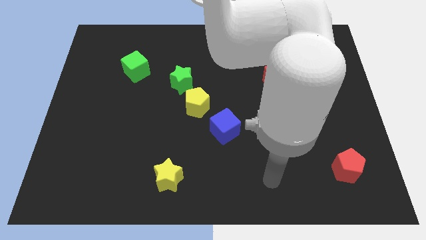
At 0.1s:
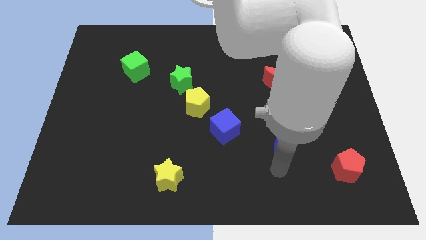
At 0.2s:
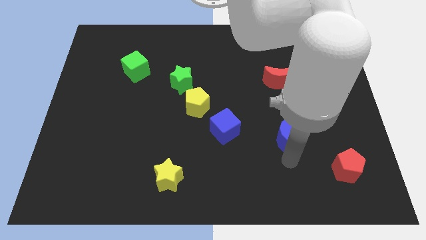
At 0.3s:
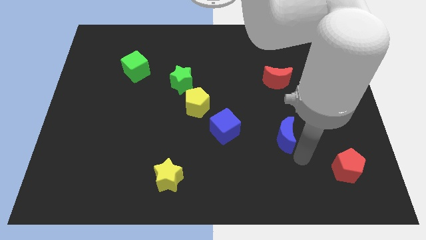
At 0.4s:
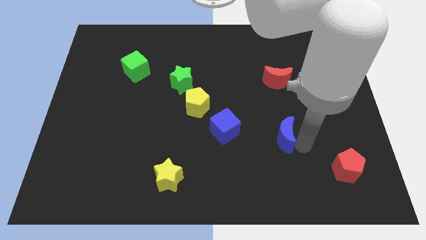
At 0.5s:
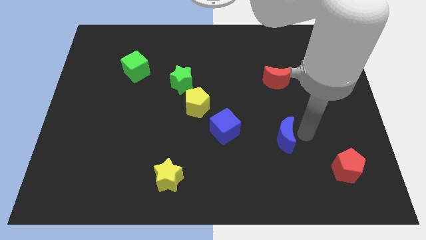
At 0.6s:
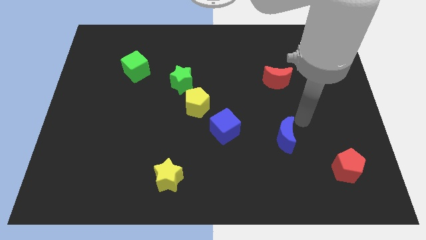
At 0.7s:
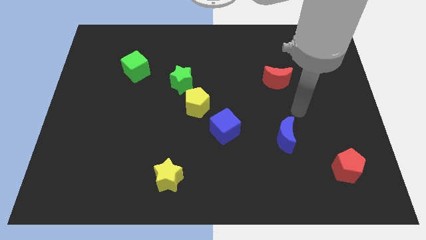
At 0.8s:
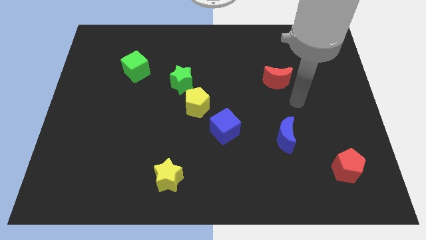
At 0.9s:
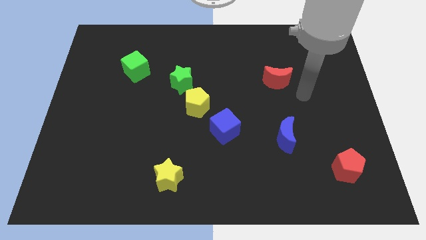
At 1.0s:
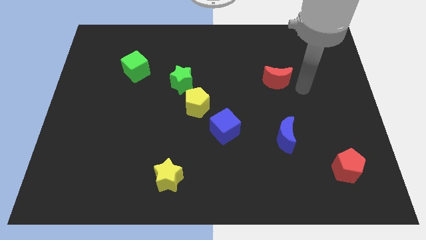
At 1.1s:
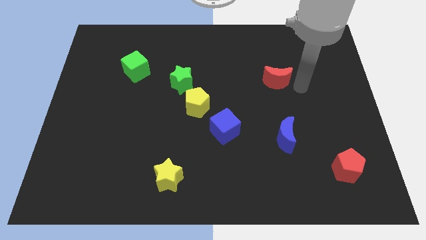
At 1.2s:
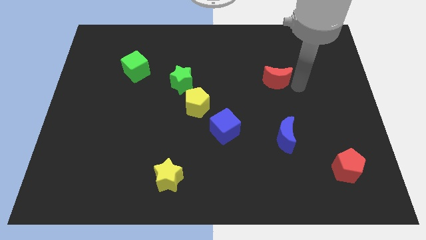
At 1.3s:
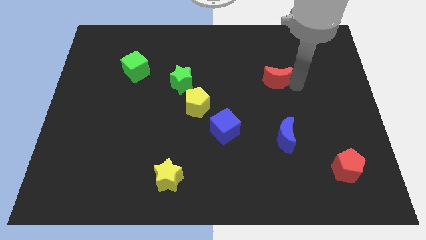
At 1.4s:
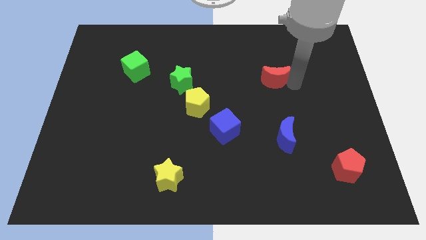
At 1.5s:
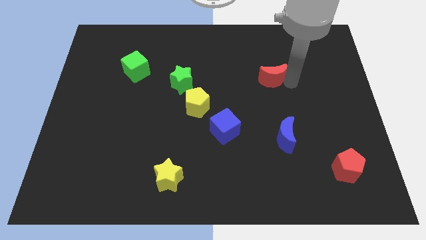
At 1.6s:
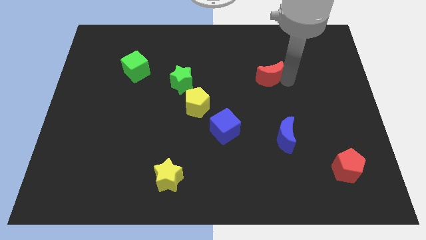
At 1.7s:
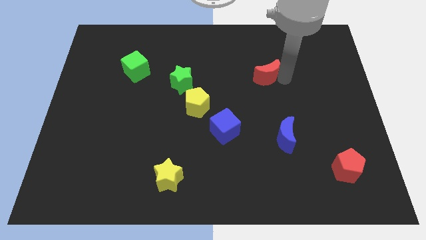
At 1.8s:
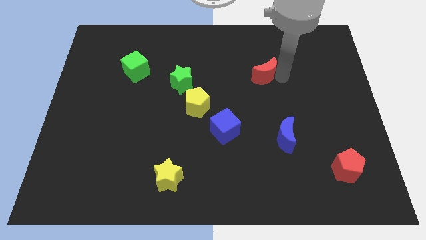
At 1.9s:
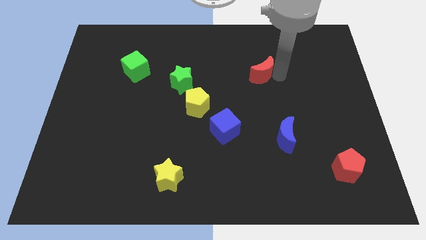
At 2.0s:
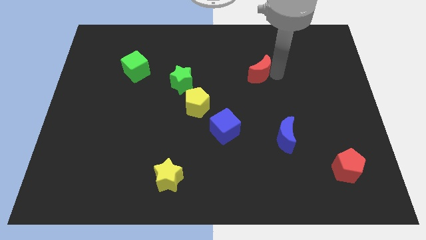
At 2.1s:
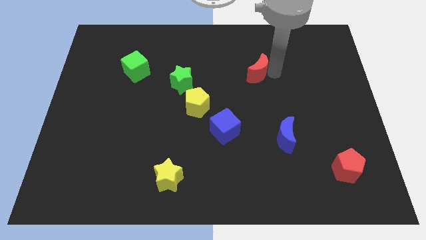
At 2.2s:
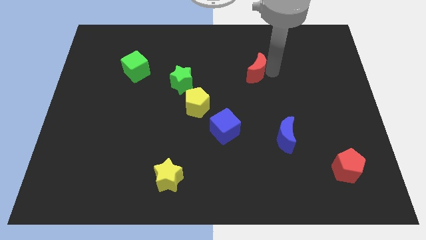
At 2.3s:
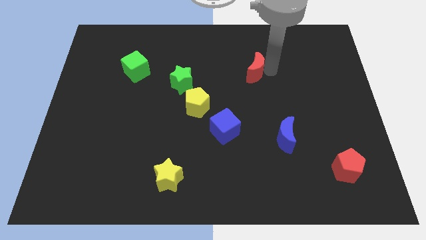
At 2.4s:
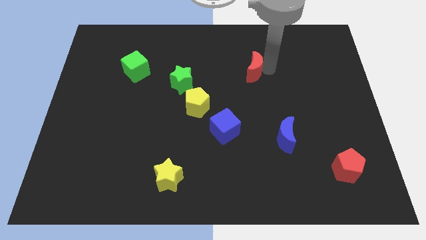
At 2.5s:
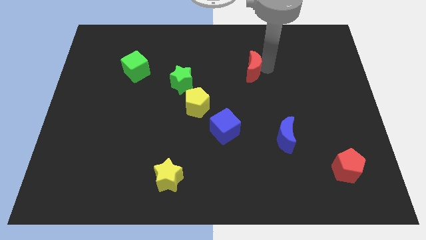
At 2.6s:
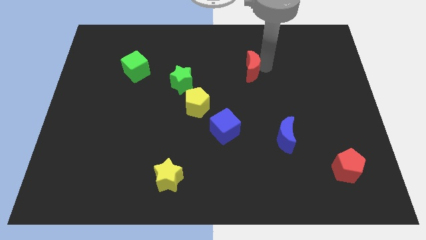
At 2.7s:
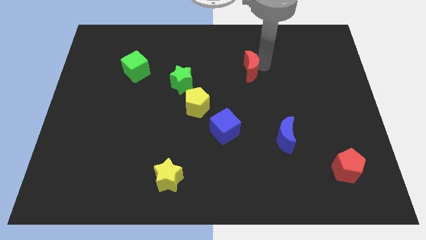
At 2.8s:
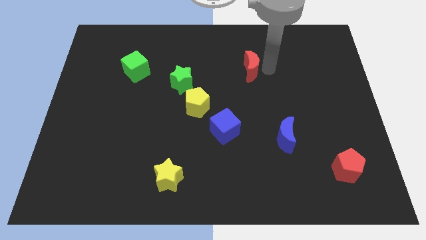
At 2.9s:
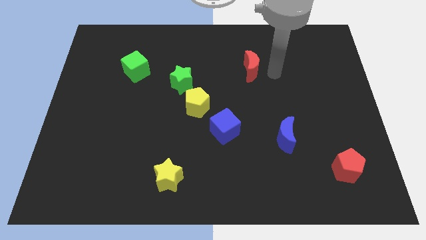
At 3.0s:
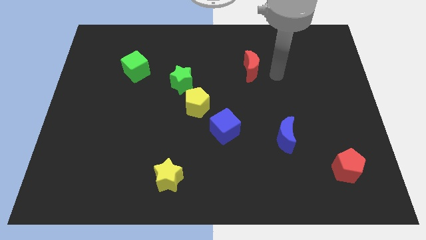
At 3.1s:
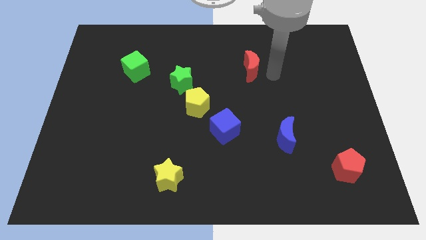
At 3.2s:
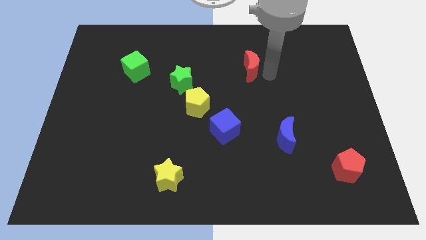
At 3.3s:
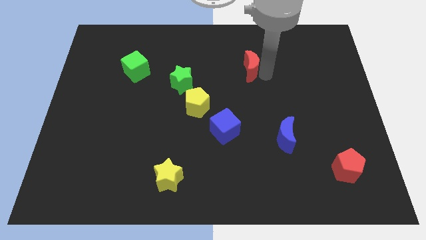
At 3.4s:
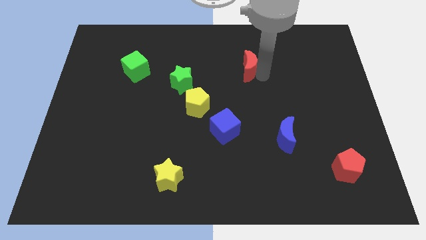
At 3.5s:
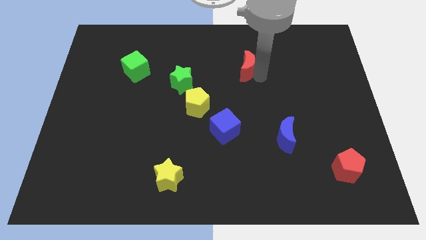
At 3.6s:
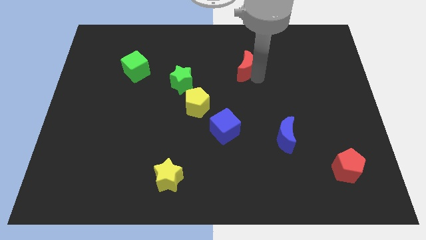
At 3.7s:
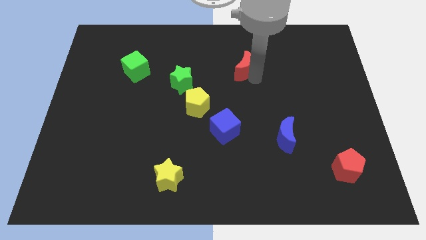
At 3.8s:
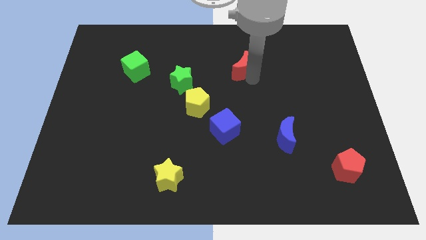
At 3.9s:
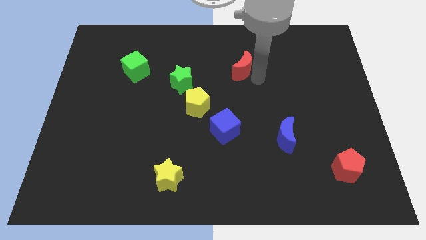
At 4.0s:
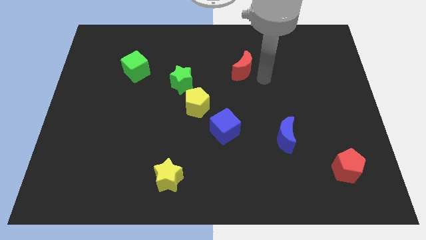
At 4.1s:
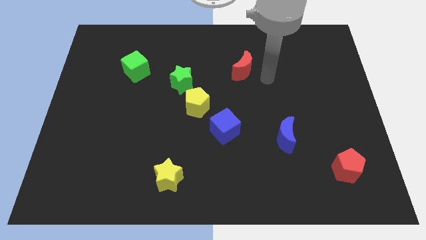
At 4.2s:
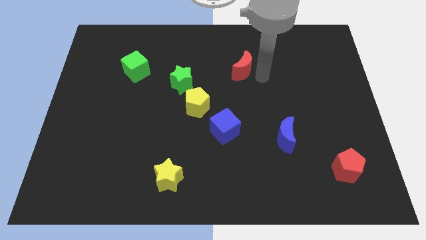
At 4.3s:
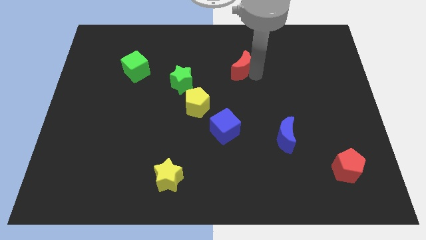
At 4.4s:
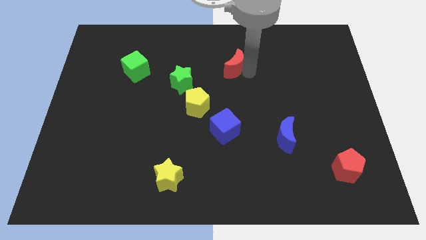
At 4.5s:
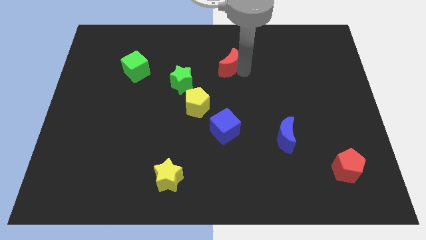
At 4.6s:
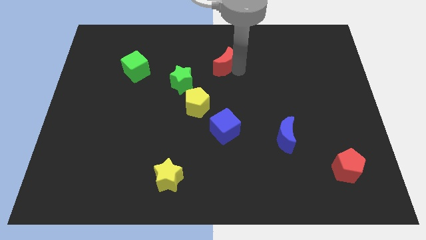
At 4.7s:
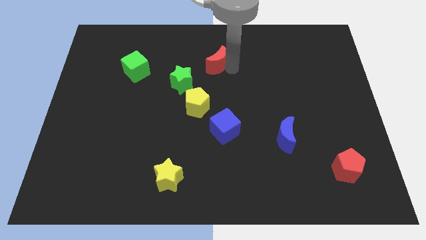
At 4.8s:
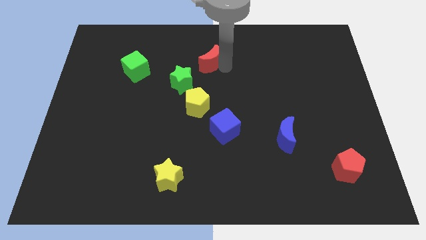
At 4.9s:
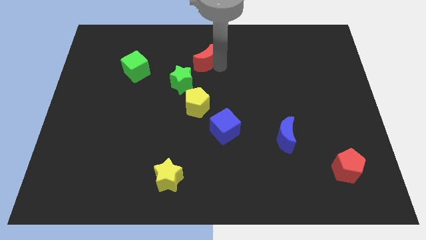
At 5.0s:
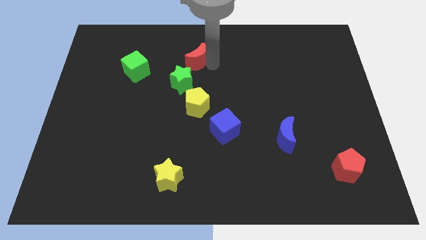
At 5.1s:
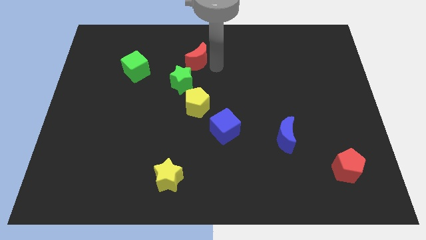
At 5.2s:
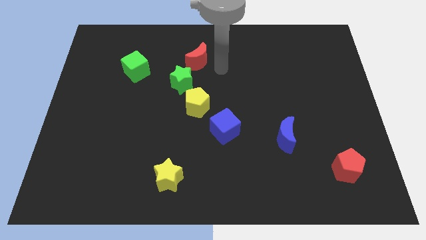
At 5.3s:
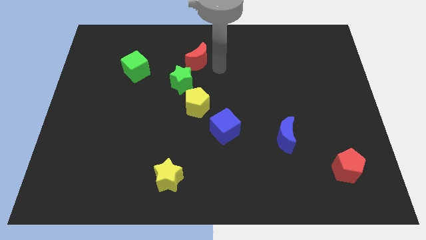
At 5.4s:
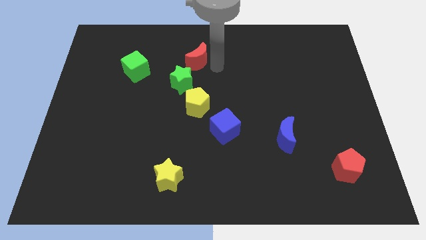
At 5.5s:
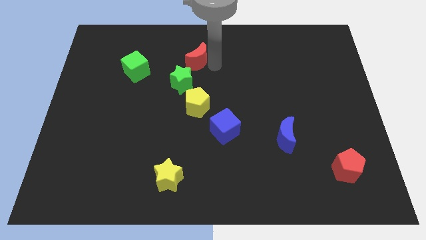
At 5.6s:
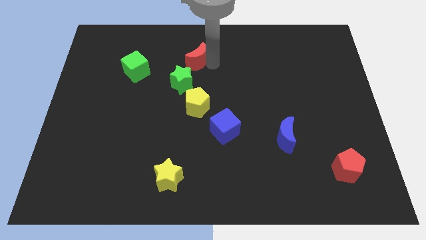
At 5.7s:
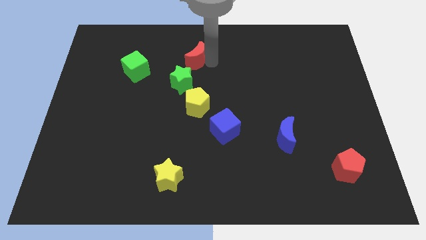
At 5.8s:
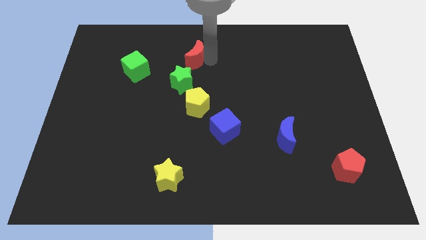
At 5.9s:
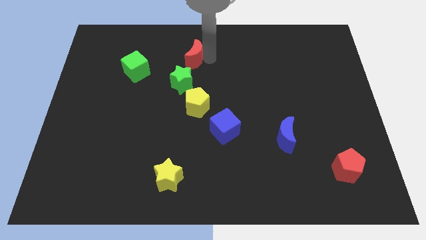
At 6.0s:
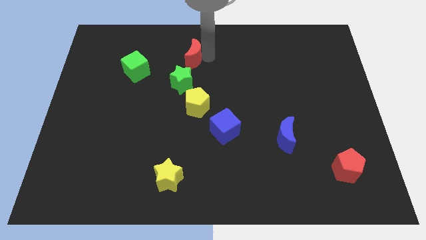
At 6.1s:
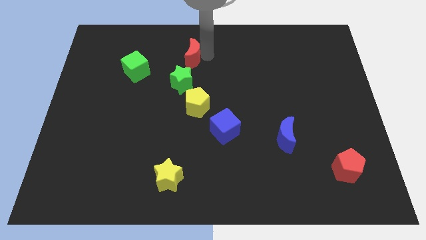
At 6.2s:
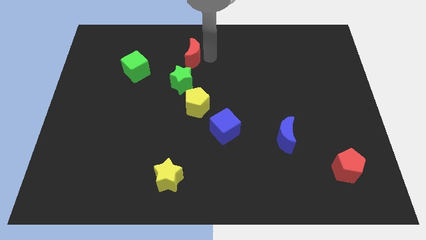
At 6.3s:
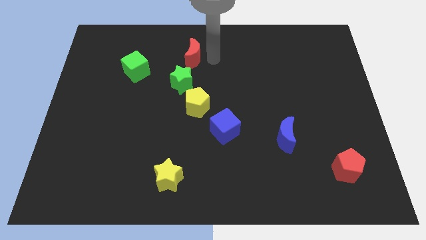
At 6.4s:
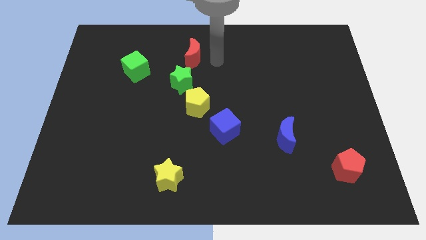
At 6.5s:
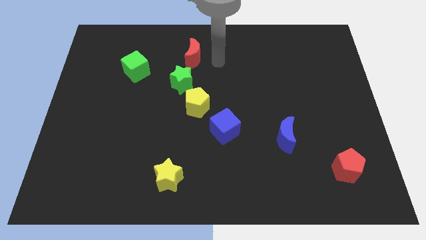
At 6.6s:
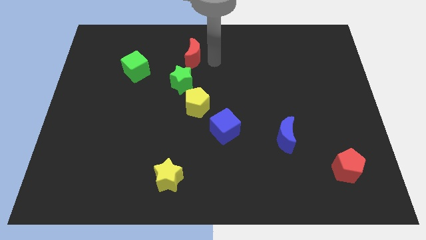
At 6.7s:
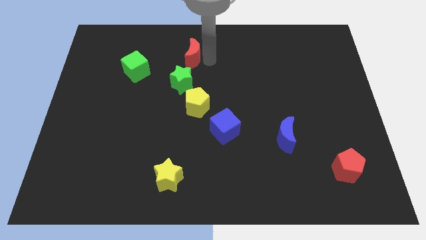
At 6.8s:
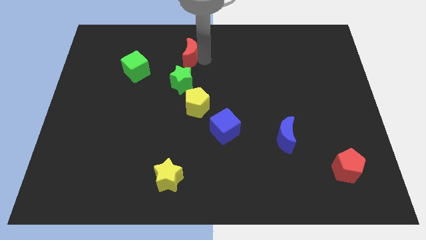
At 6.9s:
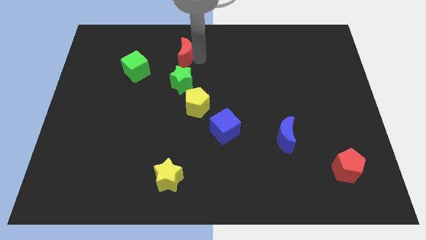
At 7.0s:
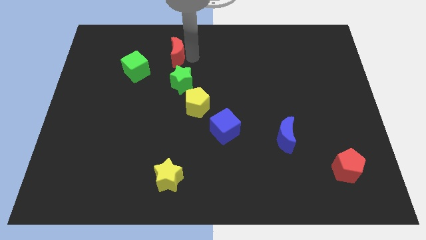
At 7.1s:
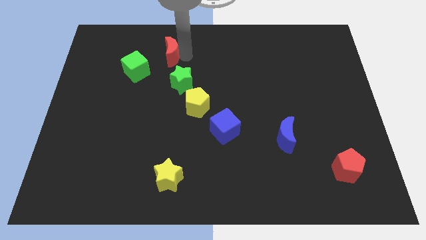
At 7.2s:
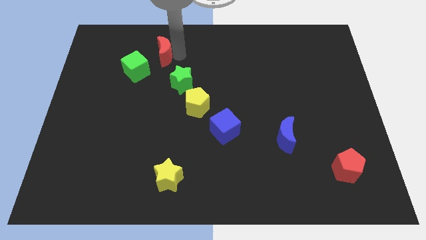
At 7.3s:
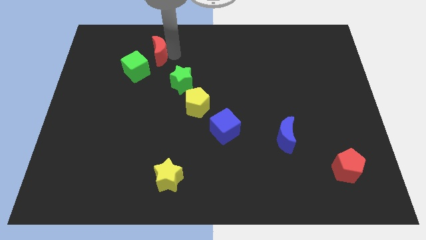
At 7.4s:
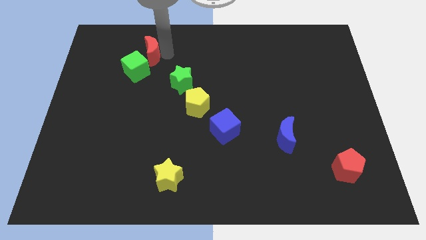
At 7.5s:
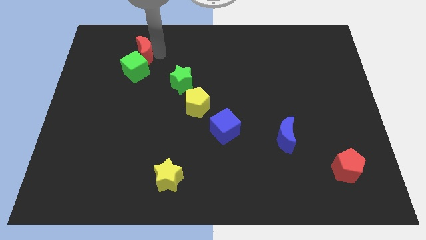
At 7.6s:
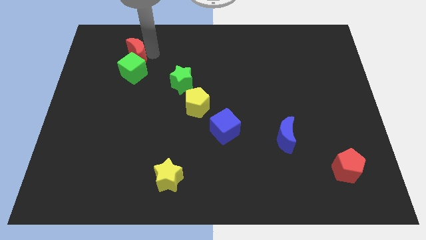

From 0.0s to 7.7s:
put the red moon to the top left side of the green cube
